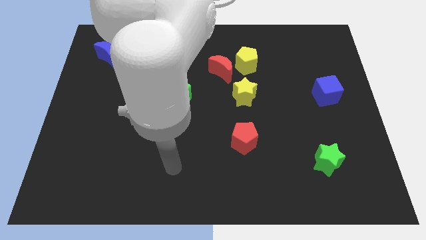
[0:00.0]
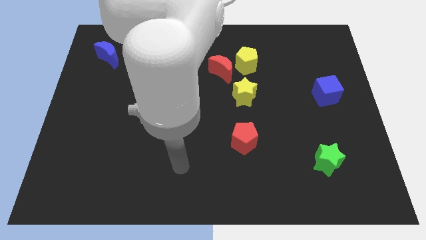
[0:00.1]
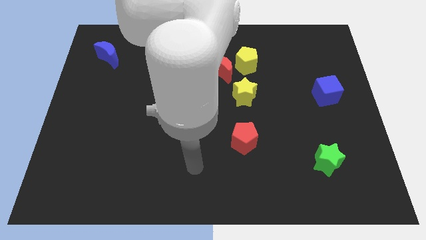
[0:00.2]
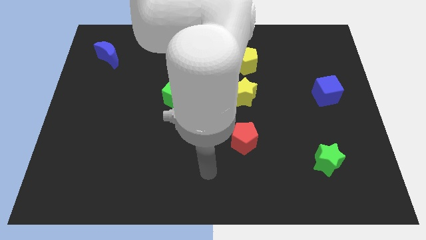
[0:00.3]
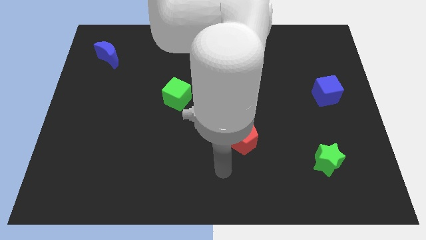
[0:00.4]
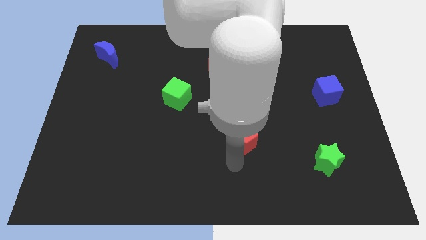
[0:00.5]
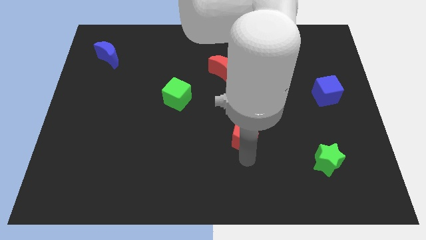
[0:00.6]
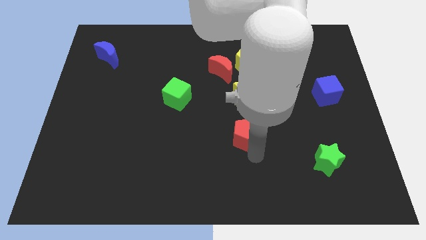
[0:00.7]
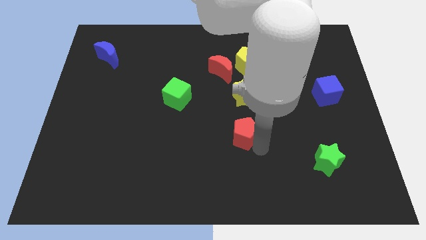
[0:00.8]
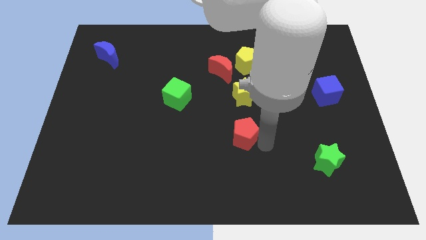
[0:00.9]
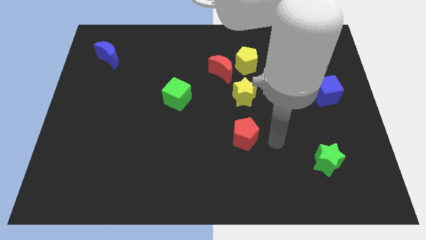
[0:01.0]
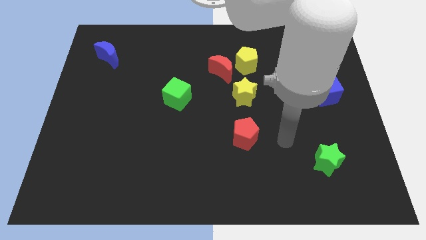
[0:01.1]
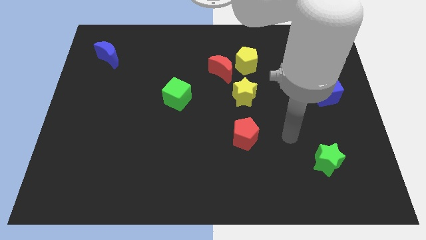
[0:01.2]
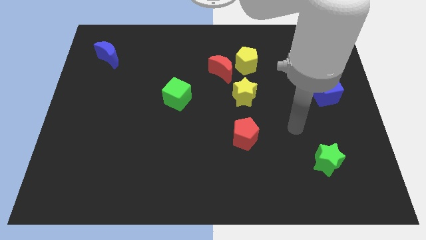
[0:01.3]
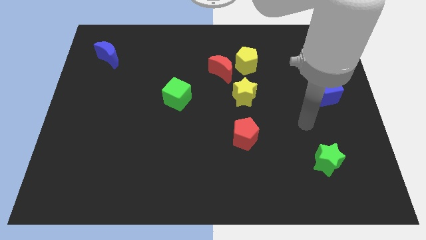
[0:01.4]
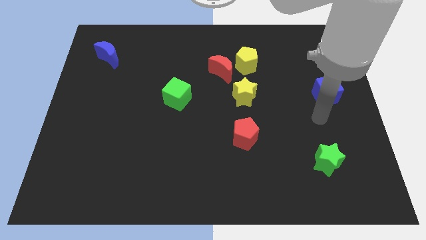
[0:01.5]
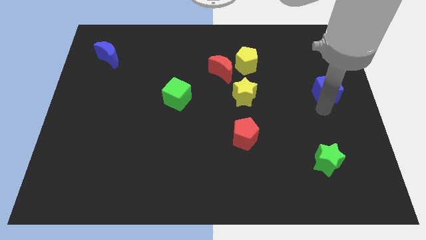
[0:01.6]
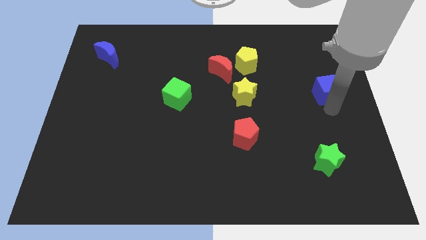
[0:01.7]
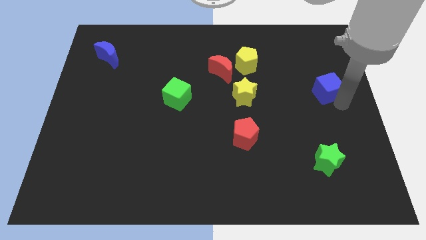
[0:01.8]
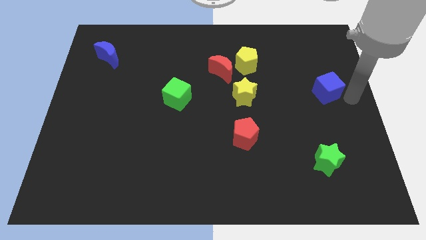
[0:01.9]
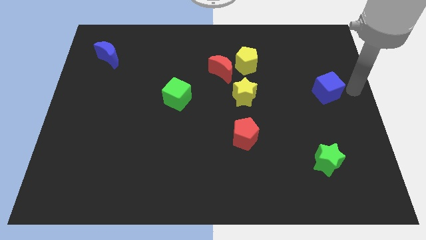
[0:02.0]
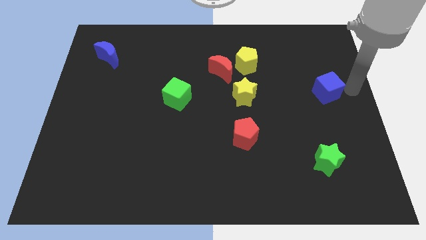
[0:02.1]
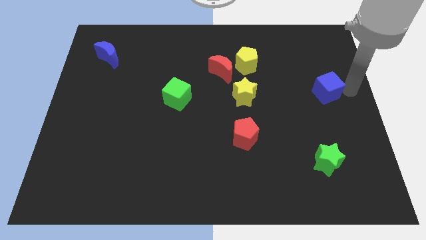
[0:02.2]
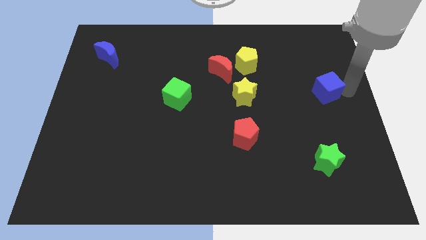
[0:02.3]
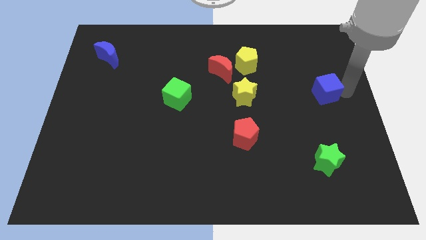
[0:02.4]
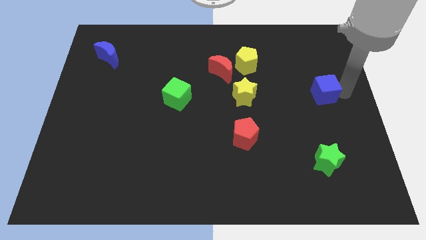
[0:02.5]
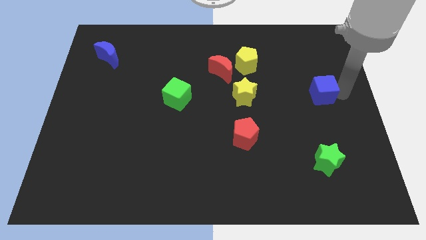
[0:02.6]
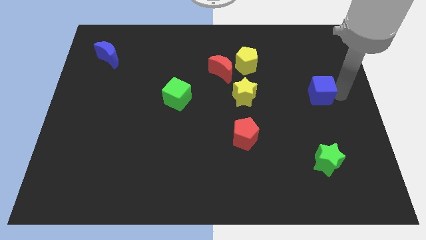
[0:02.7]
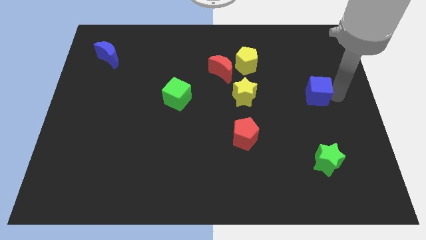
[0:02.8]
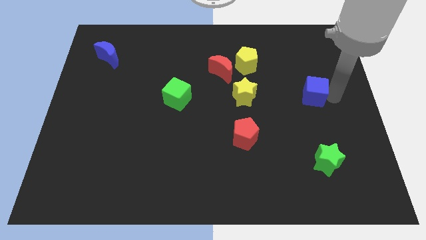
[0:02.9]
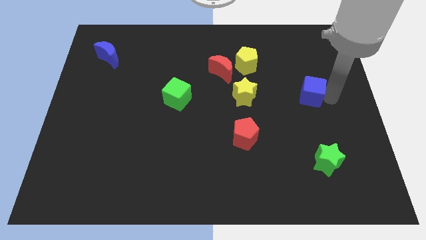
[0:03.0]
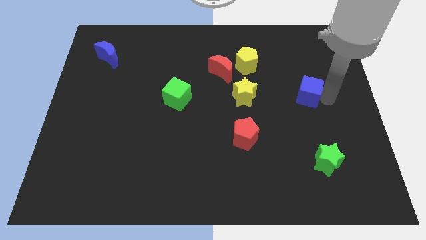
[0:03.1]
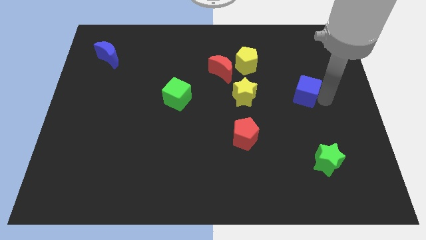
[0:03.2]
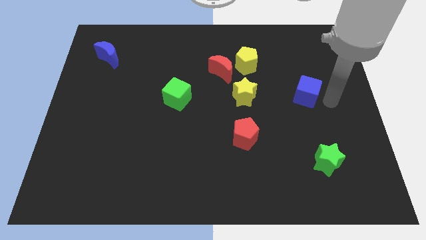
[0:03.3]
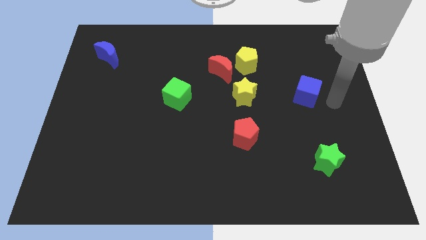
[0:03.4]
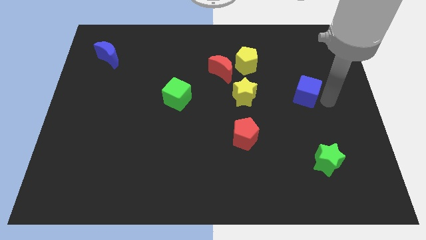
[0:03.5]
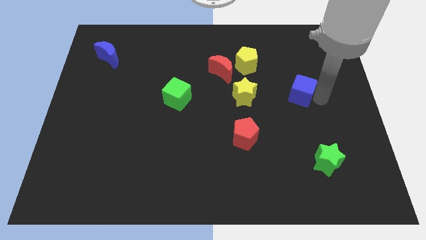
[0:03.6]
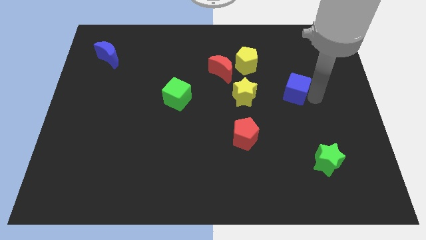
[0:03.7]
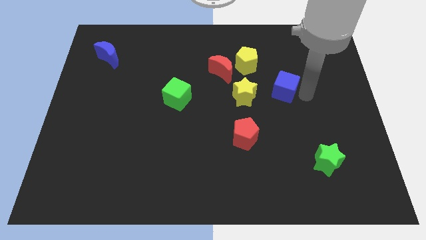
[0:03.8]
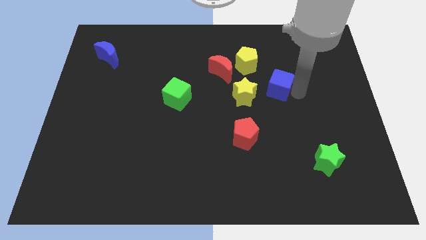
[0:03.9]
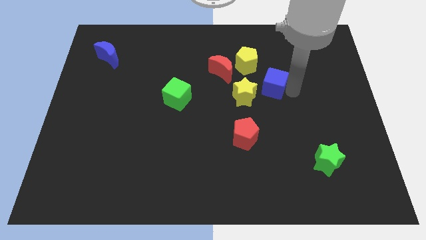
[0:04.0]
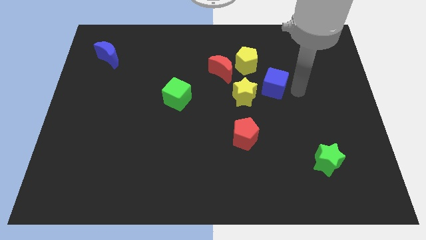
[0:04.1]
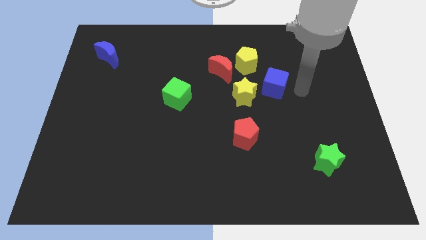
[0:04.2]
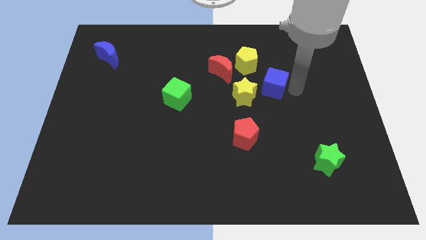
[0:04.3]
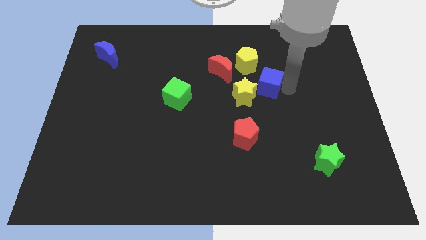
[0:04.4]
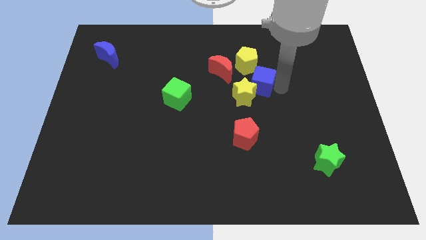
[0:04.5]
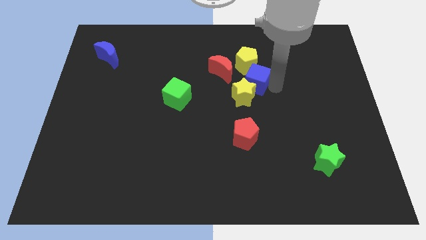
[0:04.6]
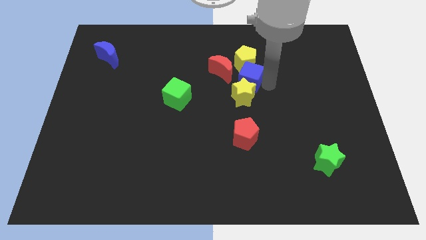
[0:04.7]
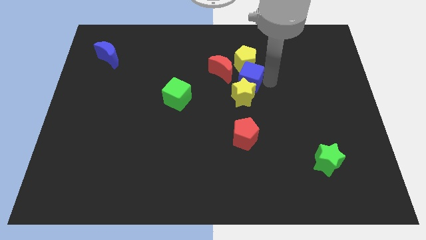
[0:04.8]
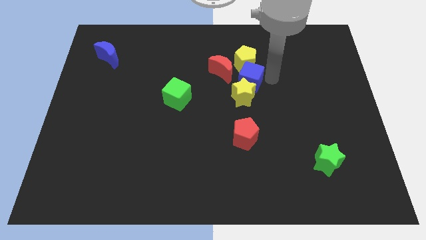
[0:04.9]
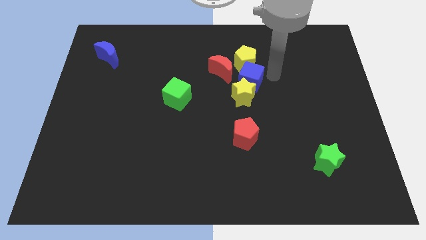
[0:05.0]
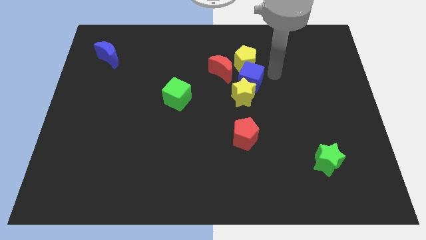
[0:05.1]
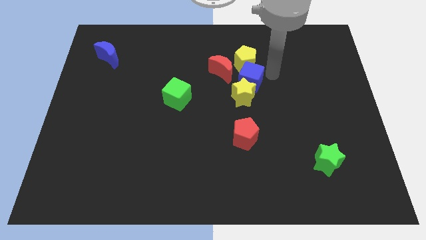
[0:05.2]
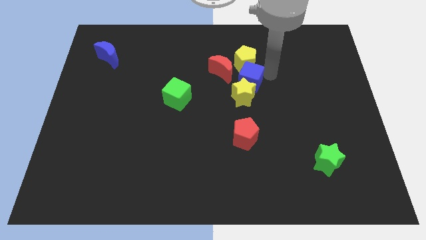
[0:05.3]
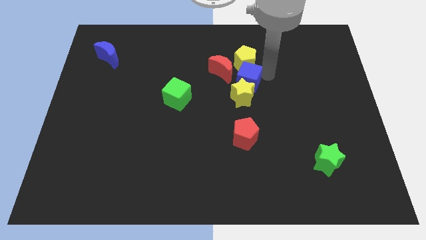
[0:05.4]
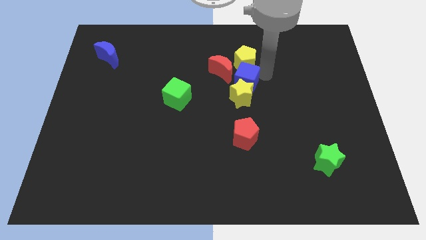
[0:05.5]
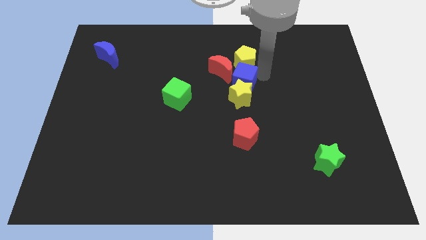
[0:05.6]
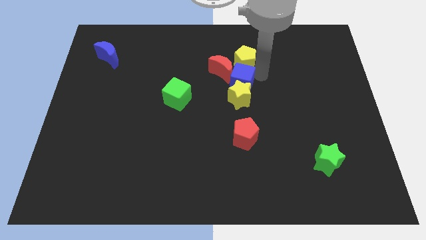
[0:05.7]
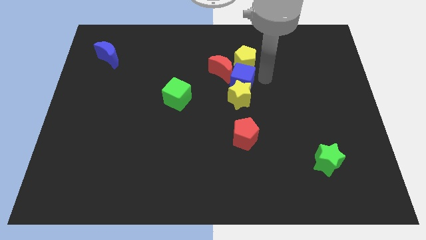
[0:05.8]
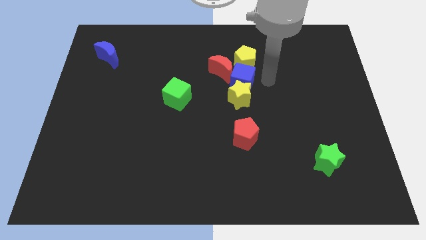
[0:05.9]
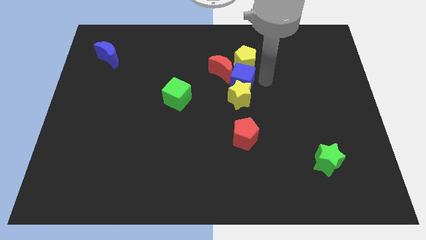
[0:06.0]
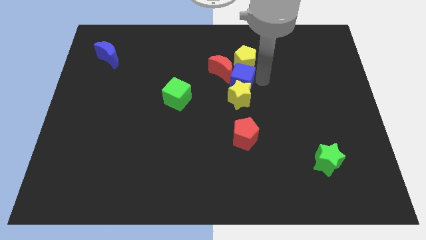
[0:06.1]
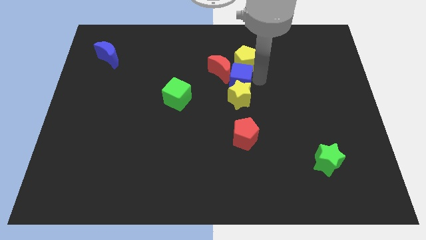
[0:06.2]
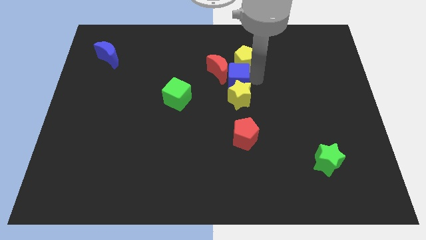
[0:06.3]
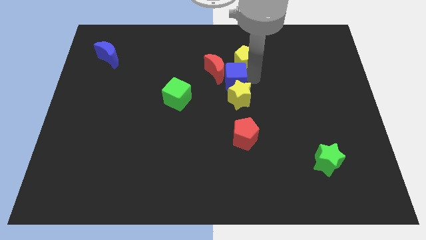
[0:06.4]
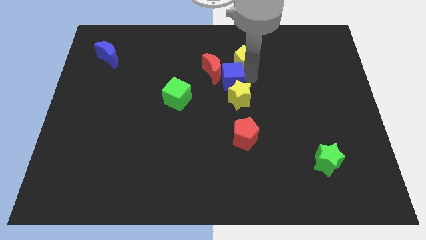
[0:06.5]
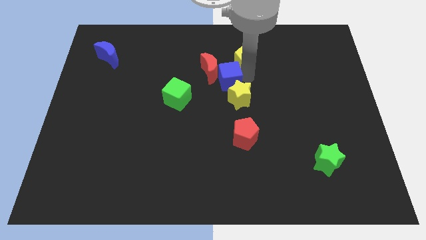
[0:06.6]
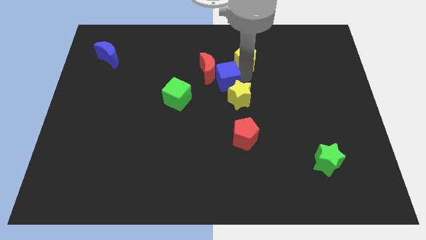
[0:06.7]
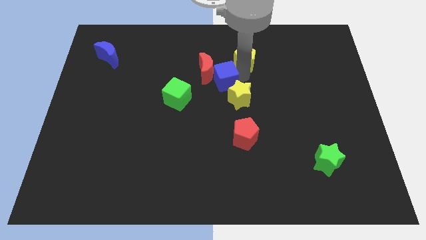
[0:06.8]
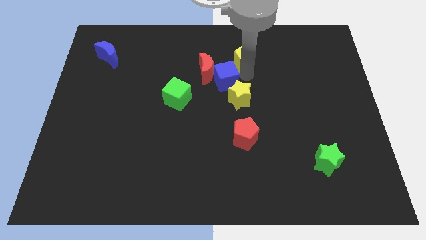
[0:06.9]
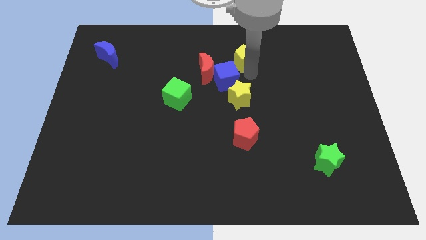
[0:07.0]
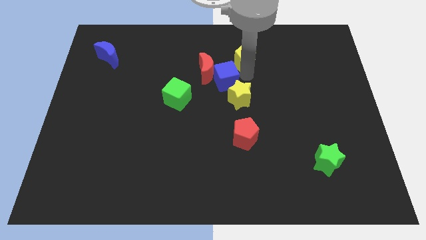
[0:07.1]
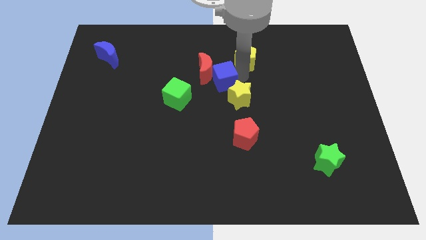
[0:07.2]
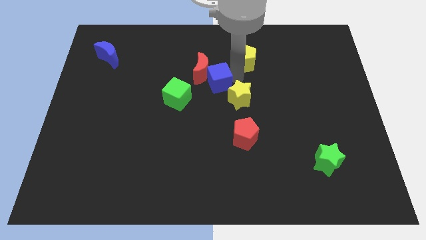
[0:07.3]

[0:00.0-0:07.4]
push the blue cube to the top right of the green cube
